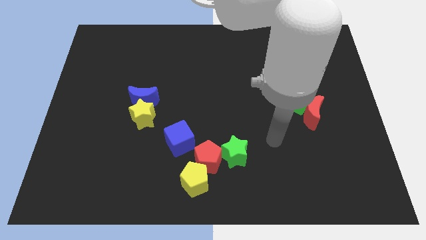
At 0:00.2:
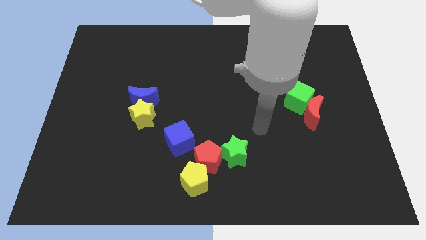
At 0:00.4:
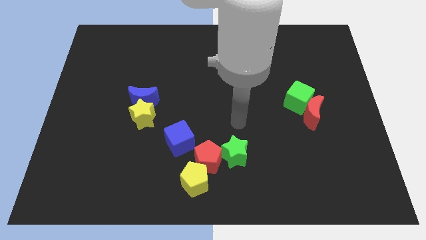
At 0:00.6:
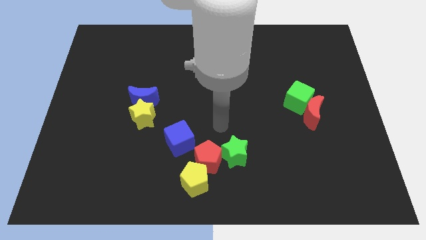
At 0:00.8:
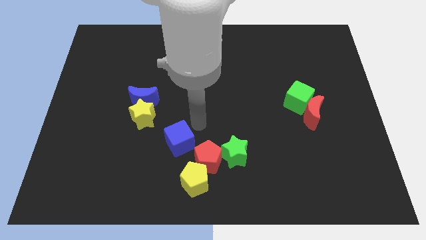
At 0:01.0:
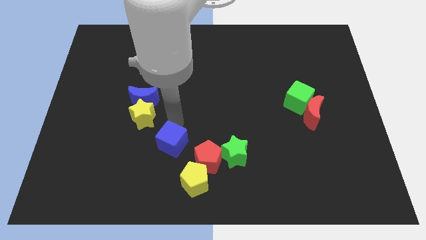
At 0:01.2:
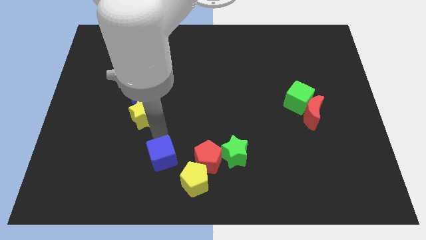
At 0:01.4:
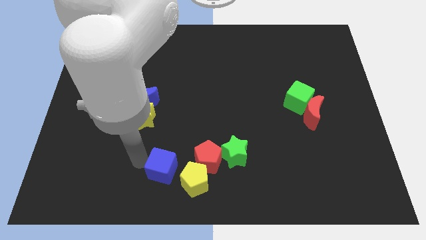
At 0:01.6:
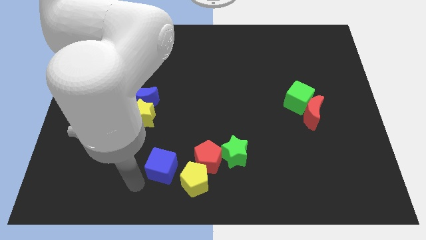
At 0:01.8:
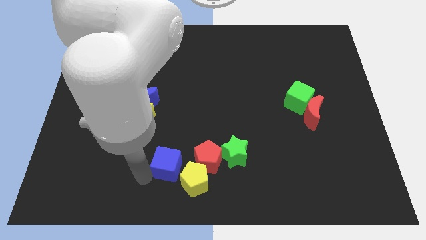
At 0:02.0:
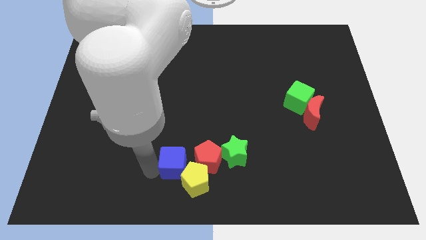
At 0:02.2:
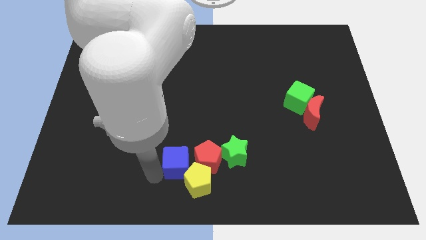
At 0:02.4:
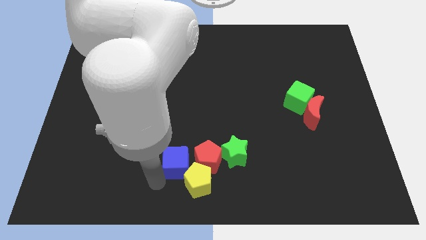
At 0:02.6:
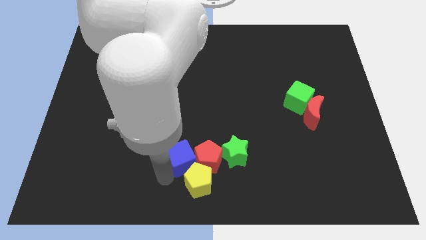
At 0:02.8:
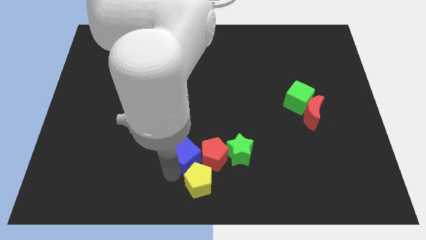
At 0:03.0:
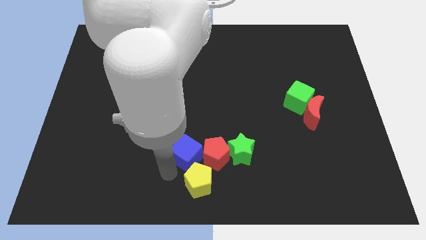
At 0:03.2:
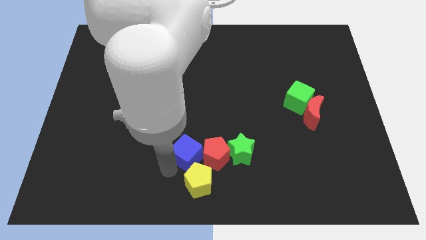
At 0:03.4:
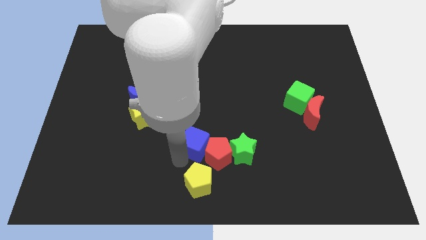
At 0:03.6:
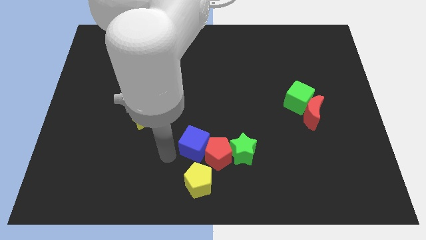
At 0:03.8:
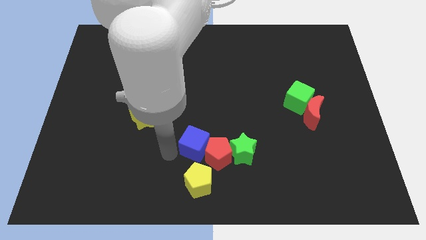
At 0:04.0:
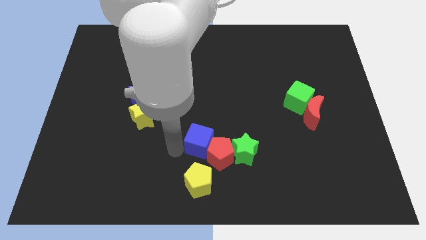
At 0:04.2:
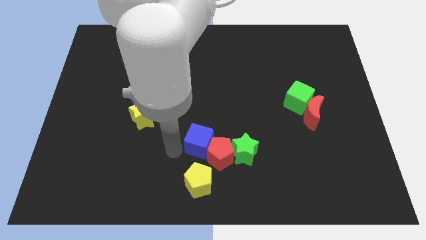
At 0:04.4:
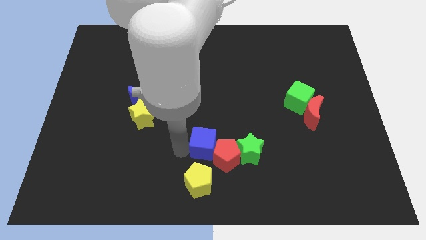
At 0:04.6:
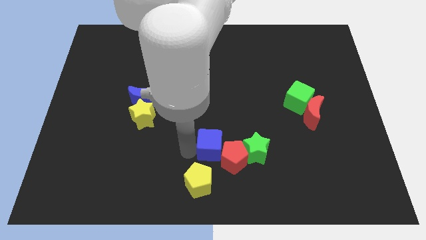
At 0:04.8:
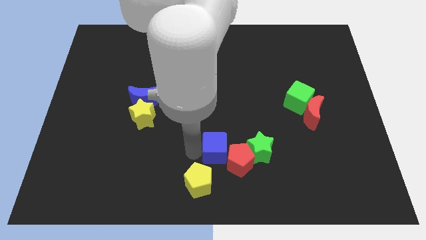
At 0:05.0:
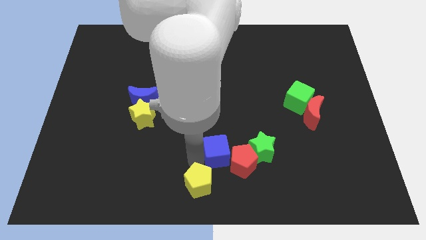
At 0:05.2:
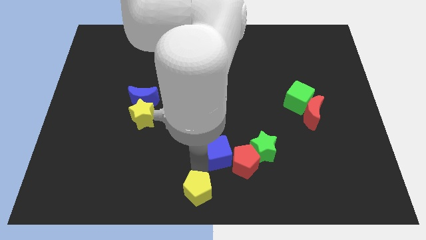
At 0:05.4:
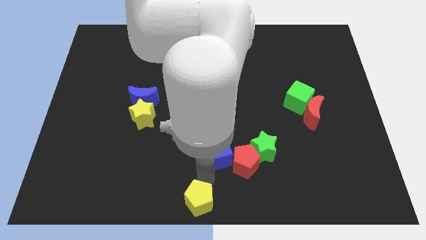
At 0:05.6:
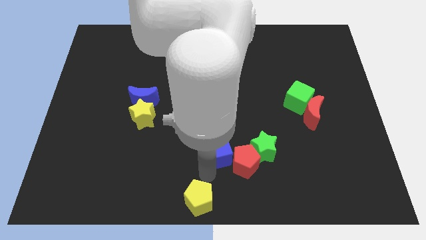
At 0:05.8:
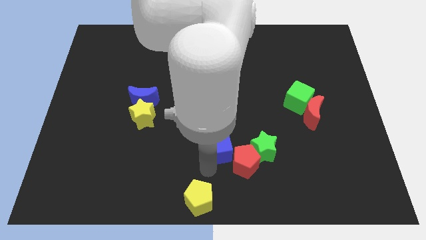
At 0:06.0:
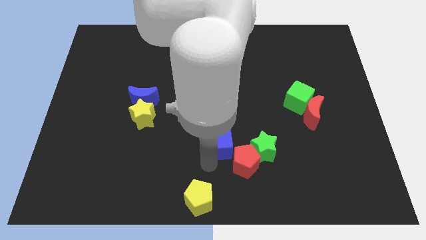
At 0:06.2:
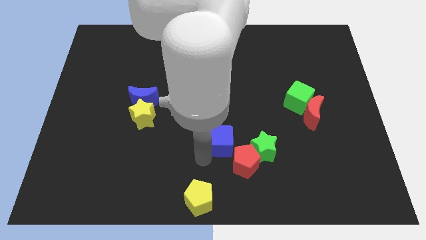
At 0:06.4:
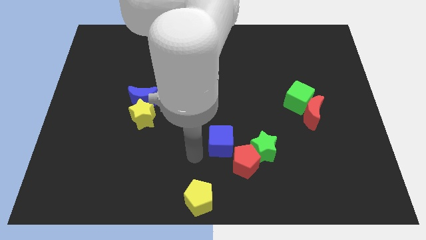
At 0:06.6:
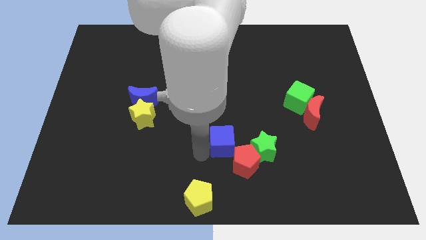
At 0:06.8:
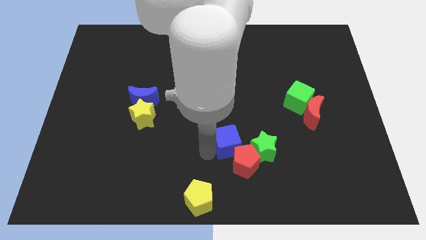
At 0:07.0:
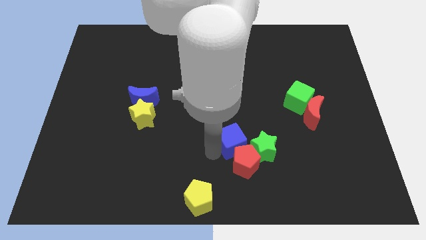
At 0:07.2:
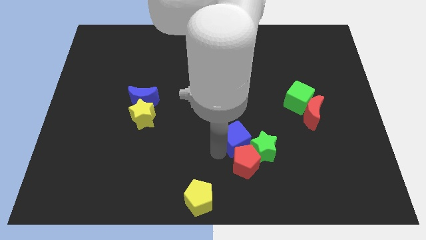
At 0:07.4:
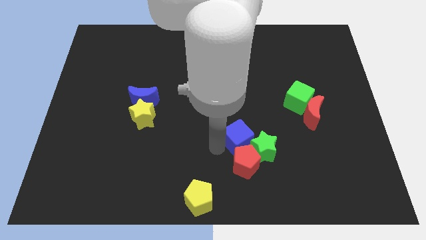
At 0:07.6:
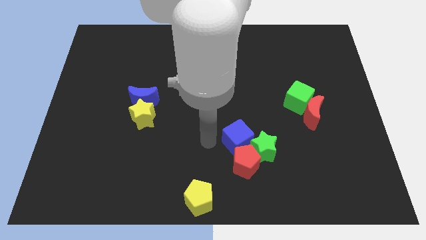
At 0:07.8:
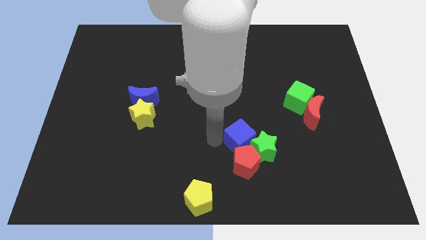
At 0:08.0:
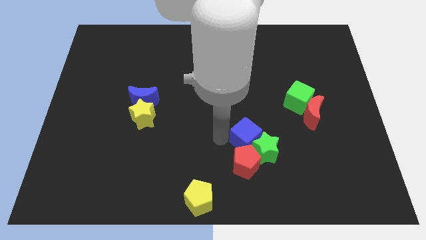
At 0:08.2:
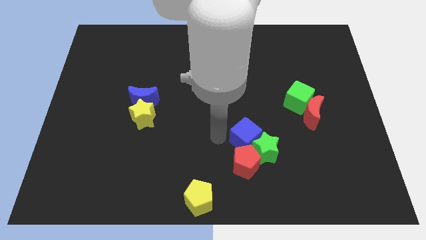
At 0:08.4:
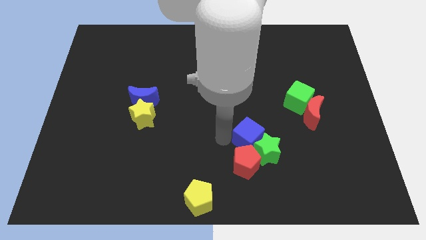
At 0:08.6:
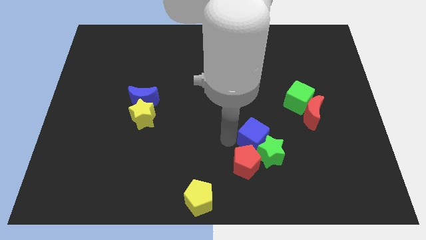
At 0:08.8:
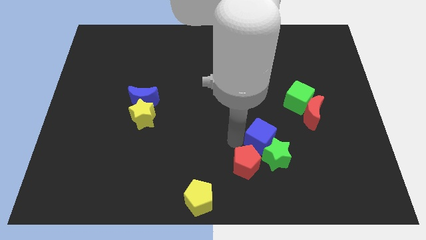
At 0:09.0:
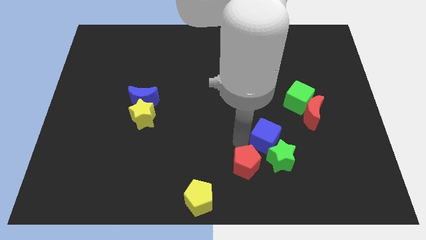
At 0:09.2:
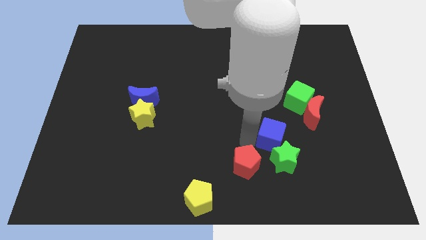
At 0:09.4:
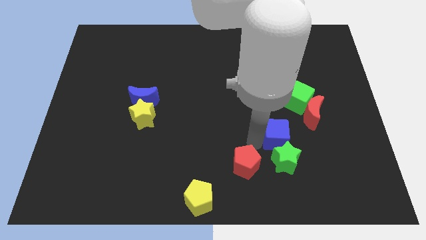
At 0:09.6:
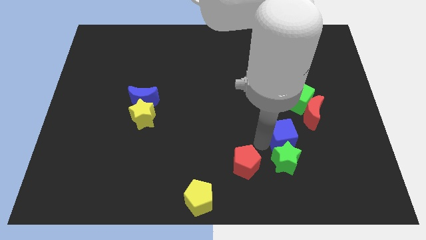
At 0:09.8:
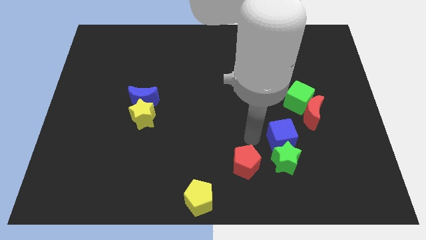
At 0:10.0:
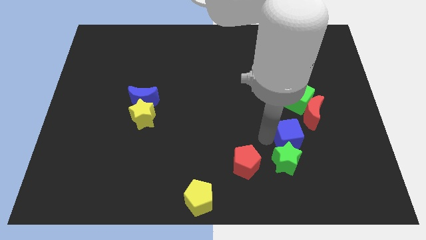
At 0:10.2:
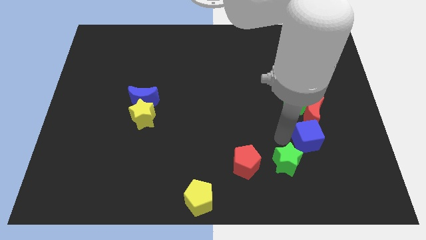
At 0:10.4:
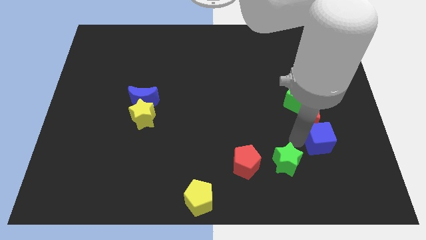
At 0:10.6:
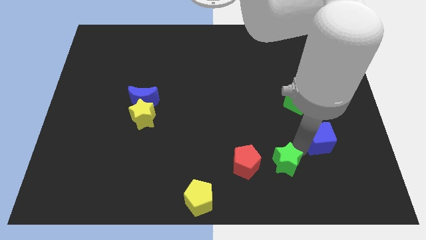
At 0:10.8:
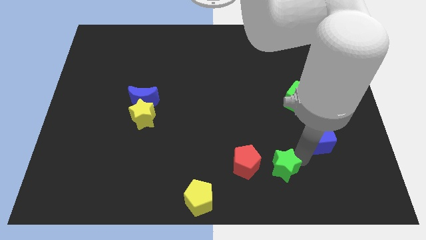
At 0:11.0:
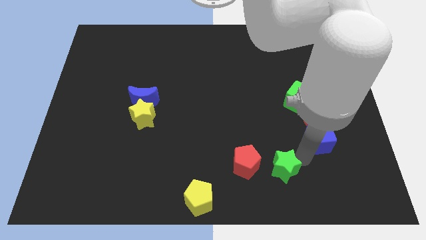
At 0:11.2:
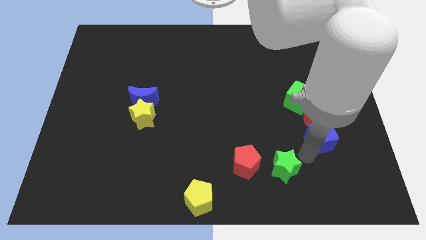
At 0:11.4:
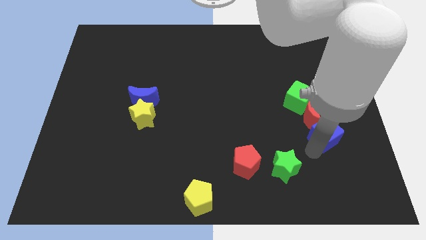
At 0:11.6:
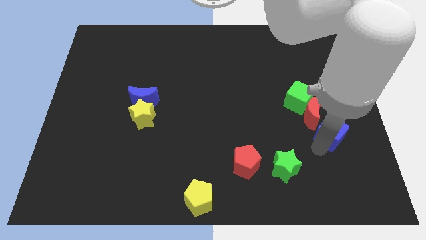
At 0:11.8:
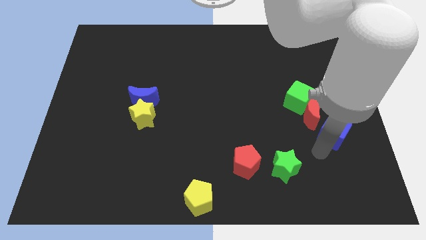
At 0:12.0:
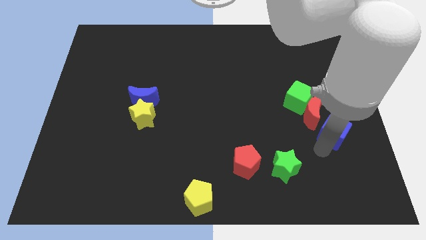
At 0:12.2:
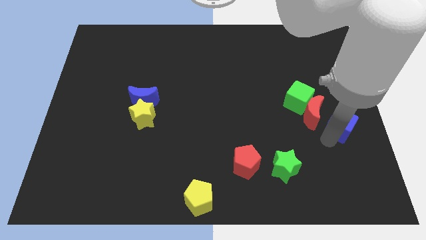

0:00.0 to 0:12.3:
put the blue cube to the center right
